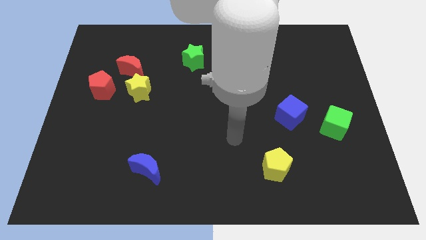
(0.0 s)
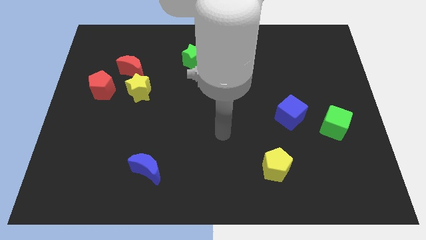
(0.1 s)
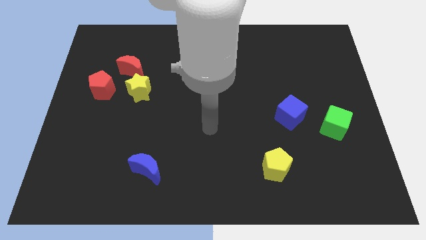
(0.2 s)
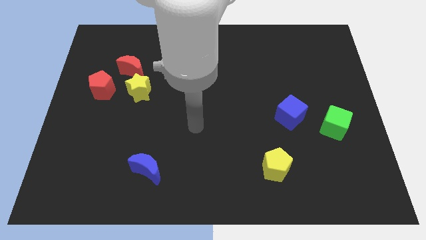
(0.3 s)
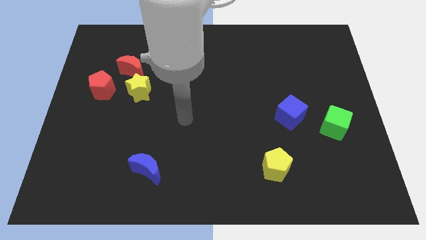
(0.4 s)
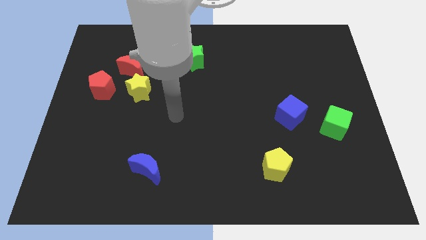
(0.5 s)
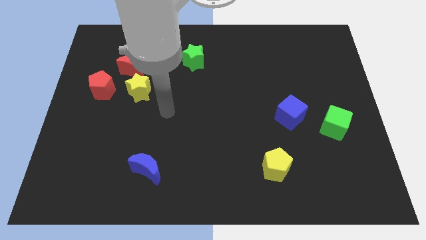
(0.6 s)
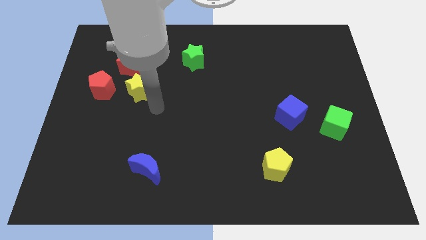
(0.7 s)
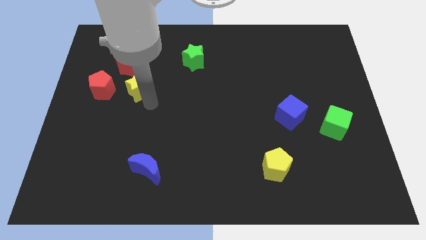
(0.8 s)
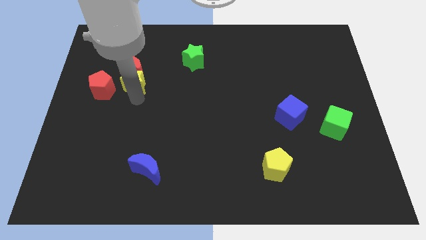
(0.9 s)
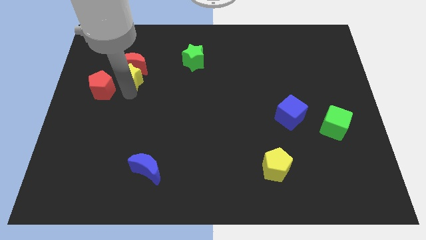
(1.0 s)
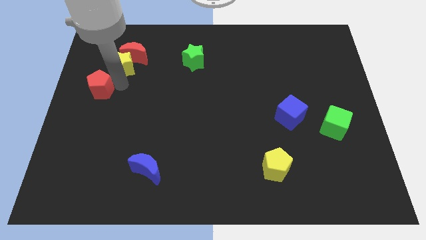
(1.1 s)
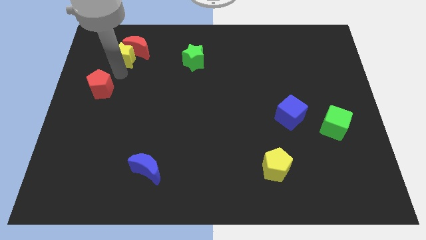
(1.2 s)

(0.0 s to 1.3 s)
pull the red moon apart from the yellow star and red pentagon

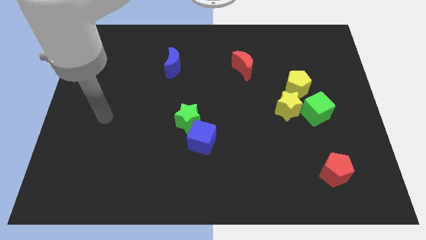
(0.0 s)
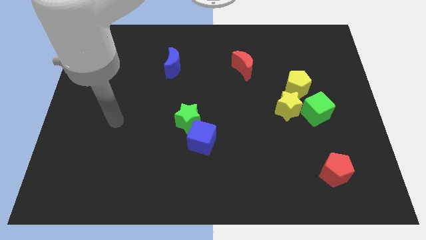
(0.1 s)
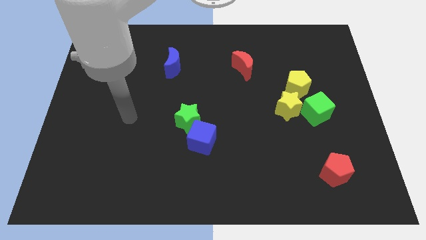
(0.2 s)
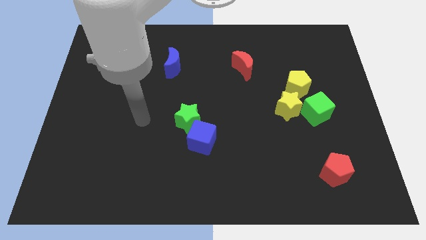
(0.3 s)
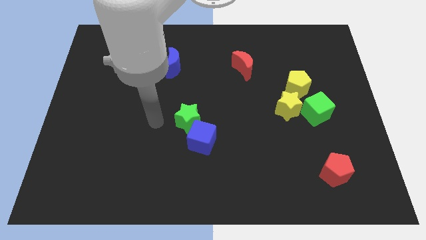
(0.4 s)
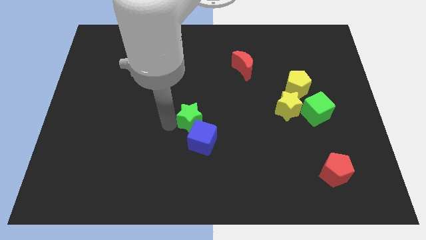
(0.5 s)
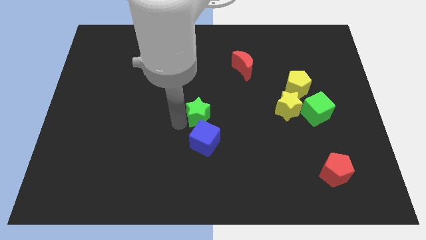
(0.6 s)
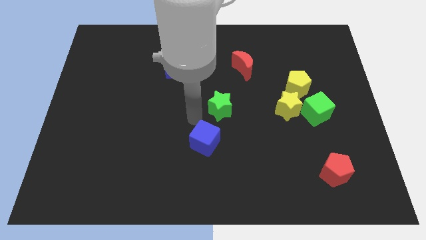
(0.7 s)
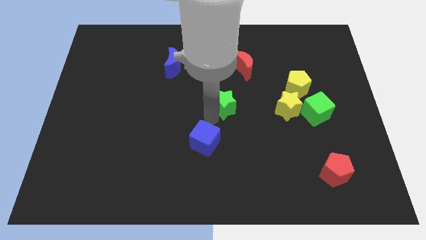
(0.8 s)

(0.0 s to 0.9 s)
move the blue cube away from the green star

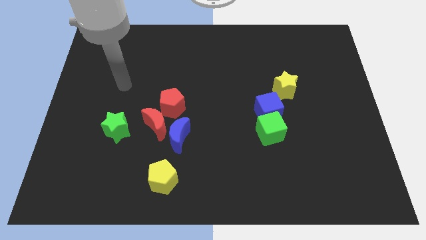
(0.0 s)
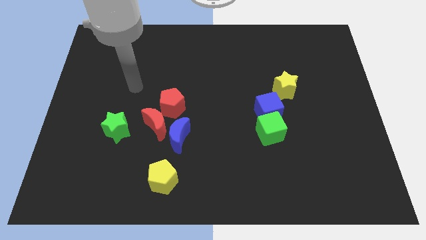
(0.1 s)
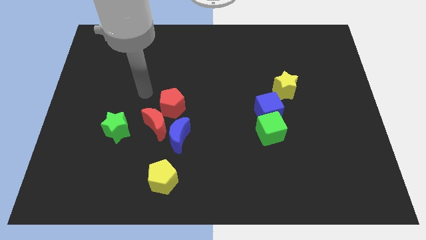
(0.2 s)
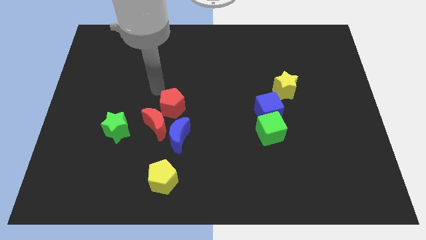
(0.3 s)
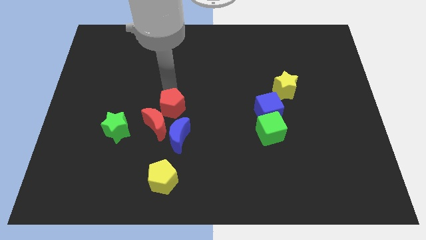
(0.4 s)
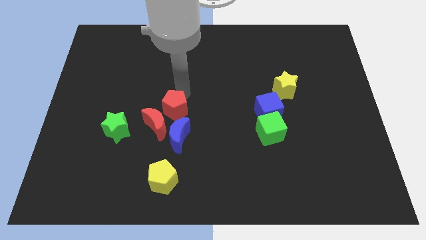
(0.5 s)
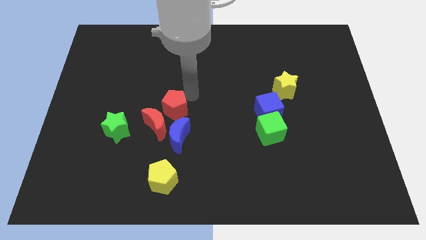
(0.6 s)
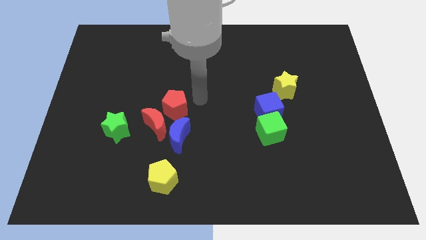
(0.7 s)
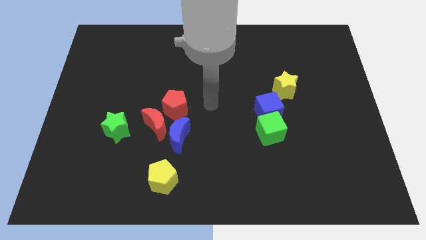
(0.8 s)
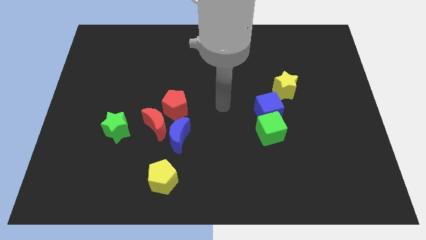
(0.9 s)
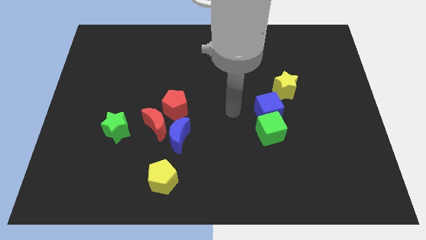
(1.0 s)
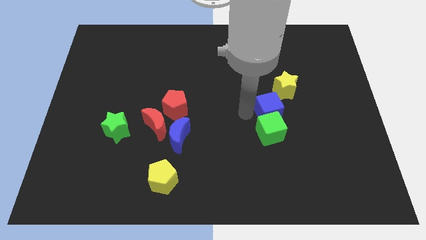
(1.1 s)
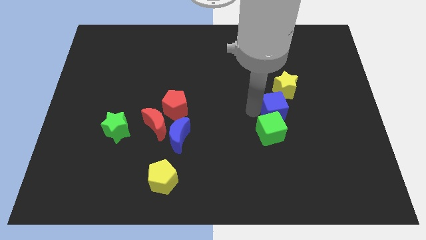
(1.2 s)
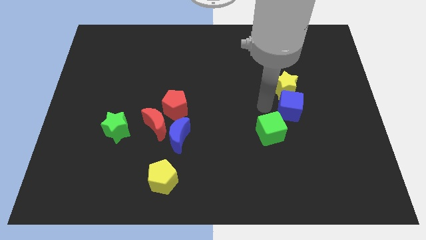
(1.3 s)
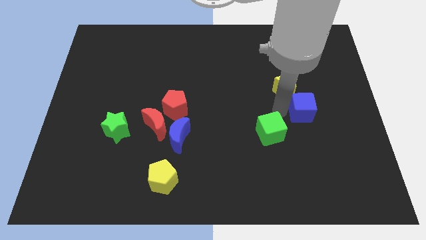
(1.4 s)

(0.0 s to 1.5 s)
pull the green cube apart from the blue cube

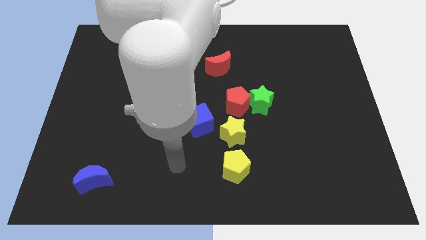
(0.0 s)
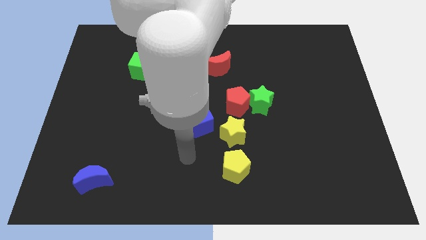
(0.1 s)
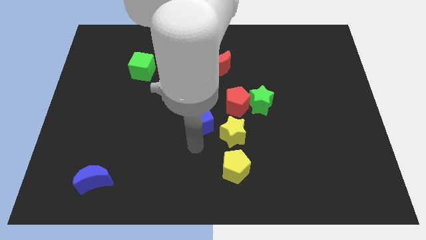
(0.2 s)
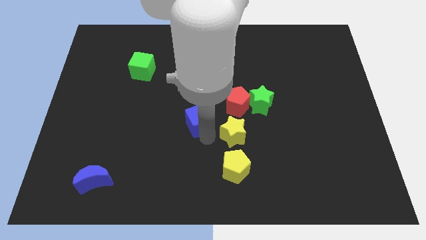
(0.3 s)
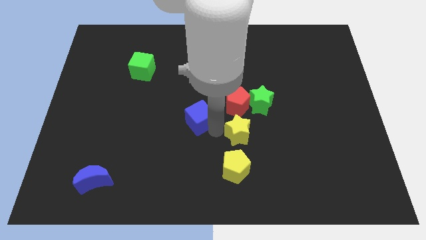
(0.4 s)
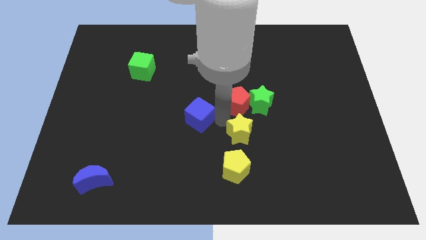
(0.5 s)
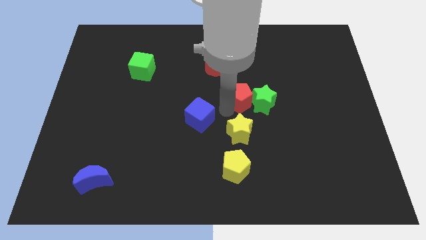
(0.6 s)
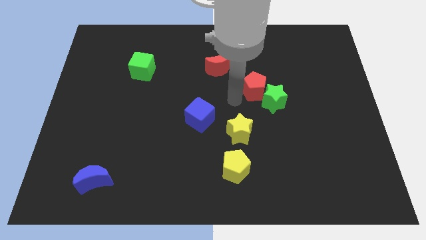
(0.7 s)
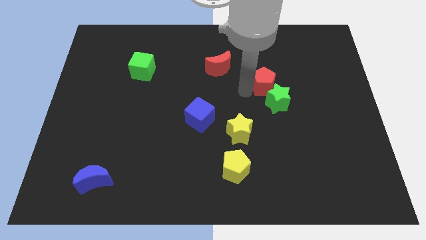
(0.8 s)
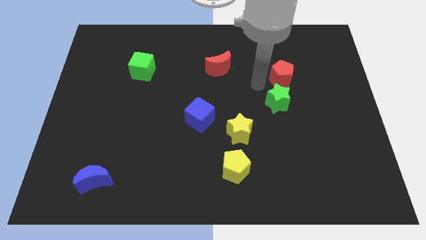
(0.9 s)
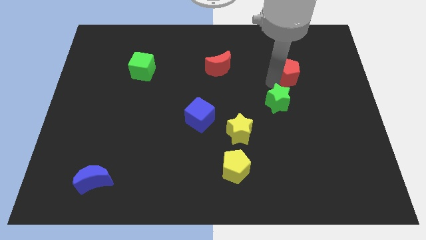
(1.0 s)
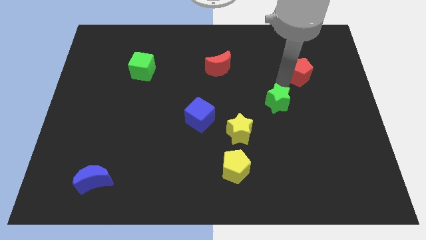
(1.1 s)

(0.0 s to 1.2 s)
separate the green star from the red pentagon

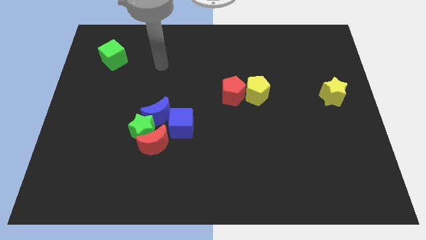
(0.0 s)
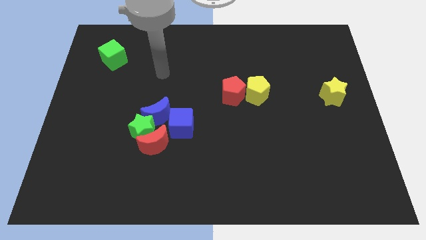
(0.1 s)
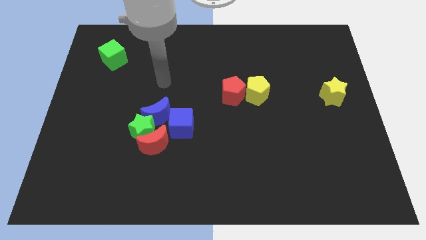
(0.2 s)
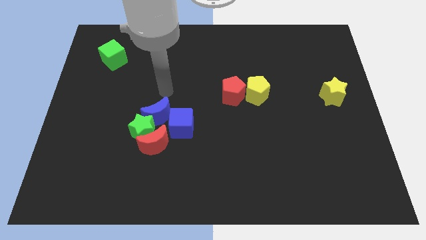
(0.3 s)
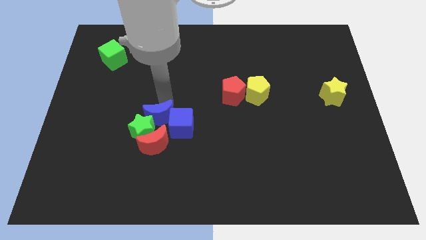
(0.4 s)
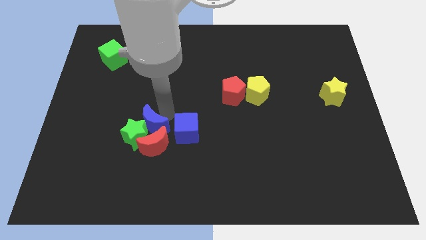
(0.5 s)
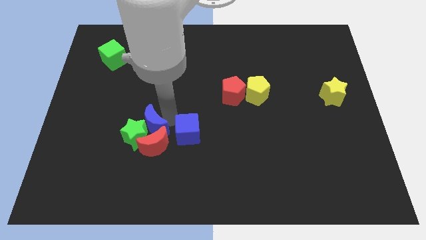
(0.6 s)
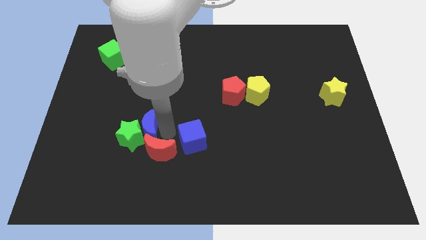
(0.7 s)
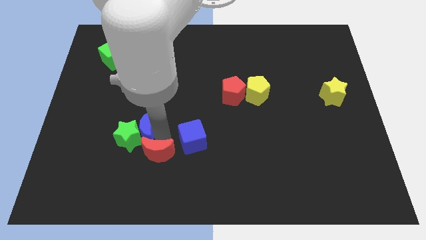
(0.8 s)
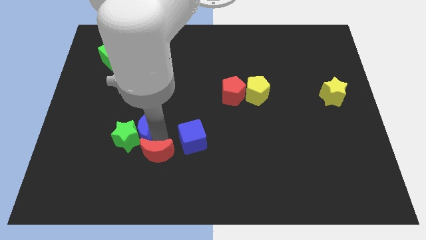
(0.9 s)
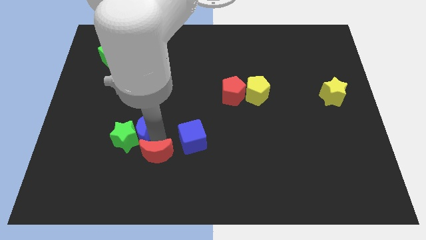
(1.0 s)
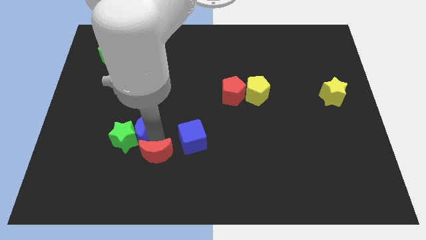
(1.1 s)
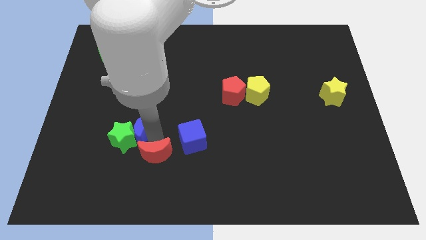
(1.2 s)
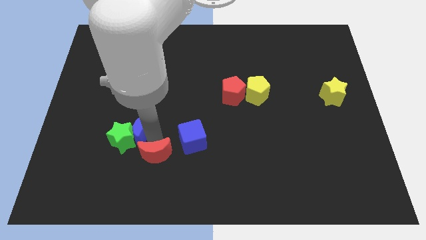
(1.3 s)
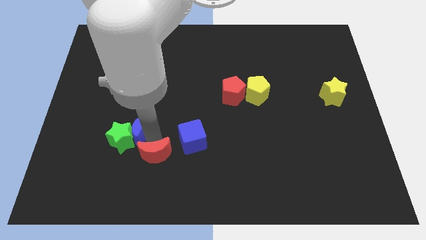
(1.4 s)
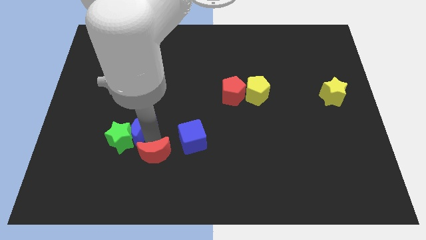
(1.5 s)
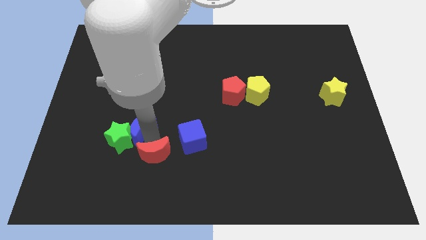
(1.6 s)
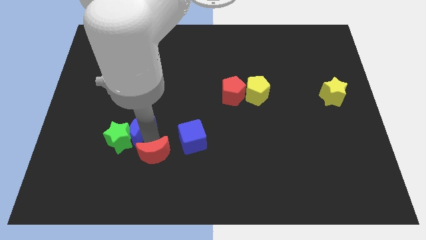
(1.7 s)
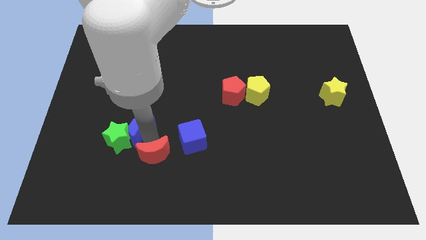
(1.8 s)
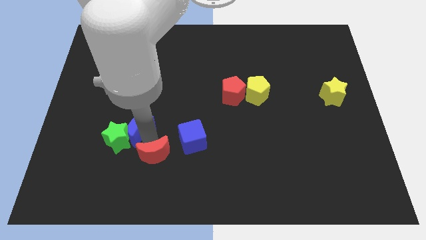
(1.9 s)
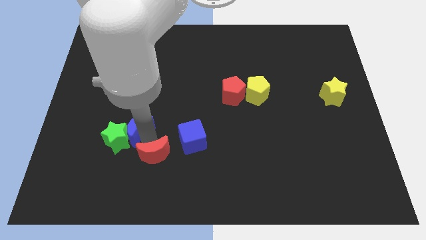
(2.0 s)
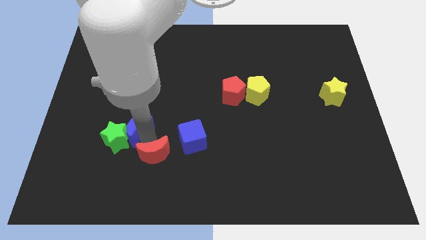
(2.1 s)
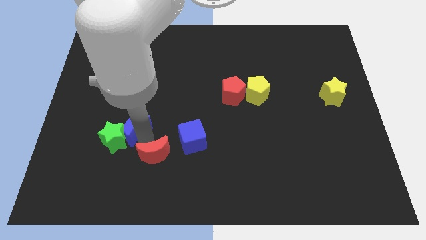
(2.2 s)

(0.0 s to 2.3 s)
move the green star away from the clump

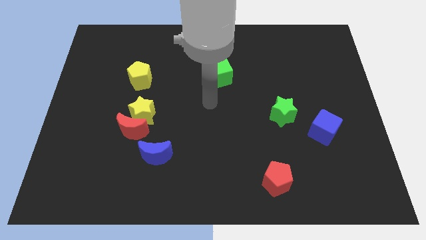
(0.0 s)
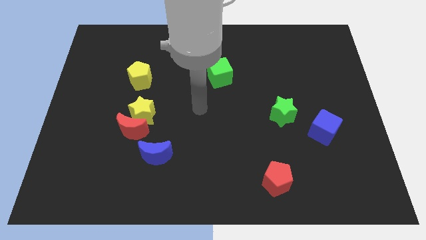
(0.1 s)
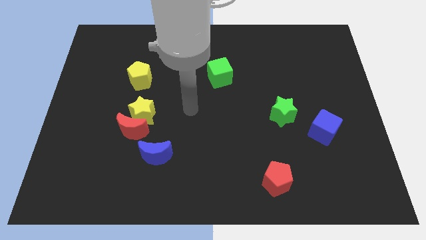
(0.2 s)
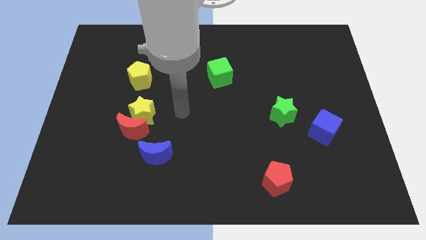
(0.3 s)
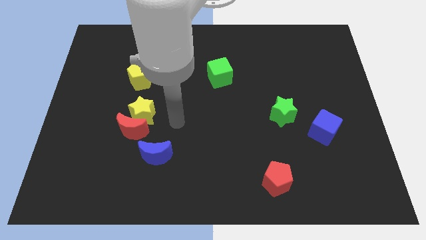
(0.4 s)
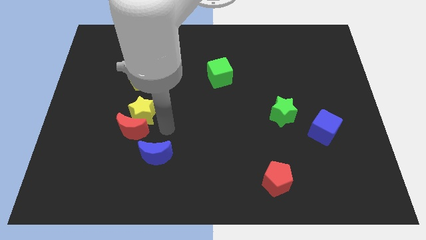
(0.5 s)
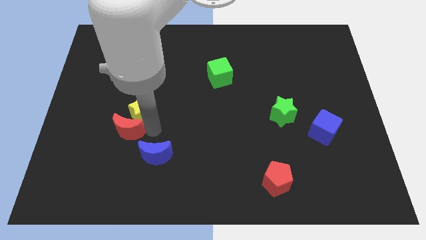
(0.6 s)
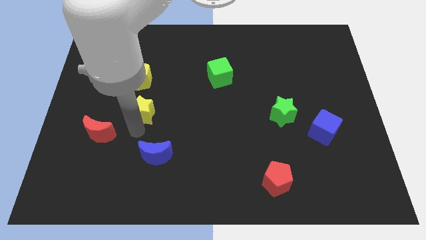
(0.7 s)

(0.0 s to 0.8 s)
separate the yellow star from the red moon

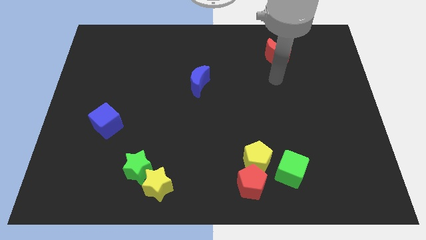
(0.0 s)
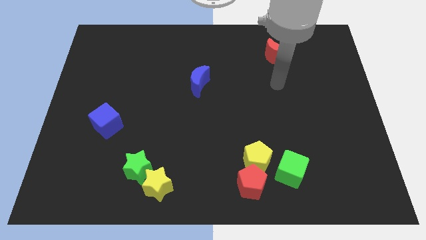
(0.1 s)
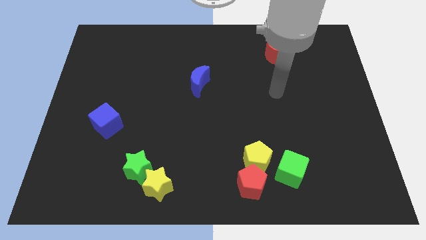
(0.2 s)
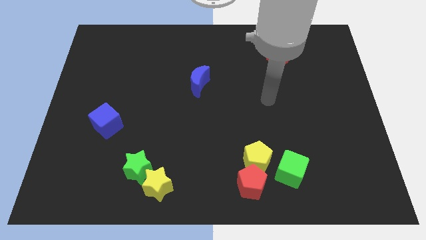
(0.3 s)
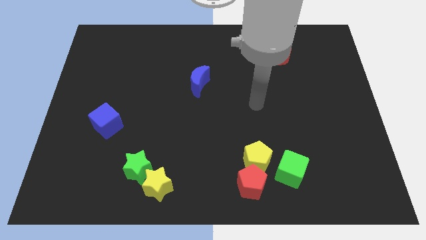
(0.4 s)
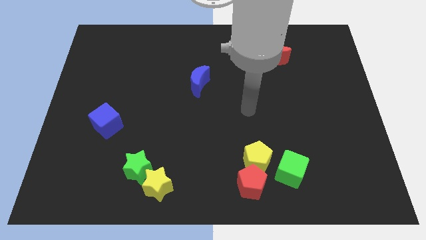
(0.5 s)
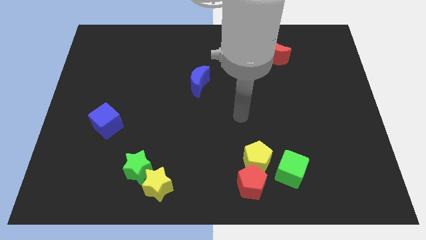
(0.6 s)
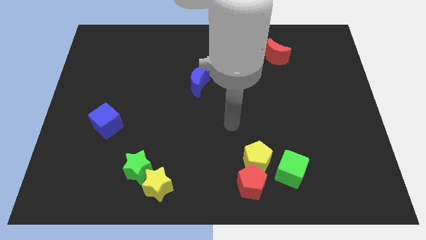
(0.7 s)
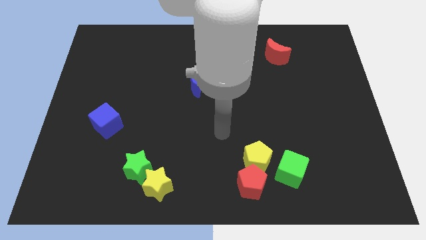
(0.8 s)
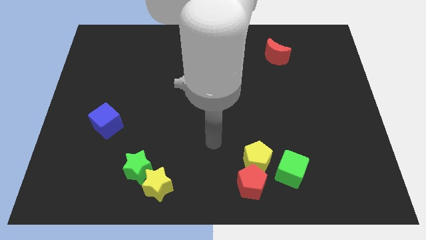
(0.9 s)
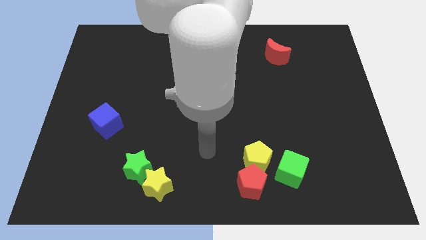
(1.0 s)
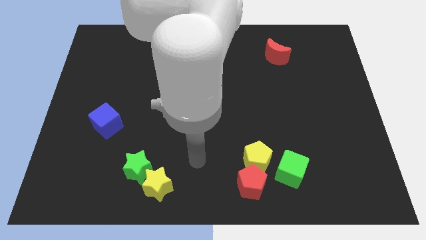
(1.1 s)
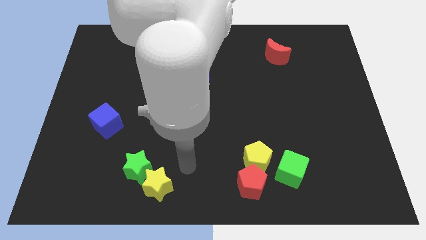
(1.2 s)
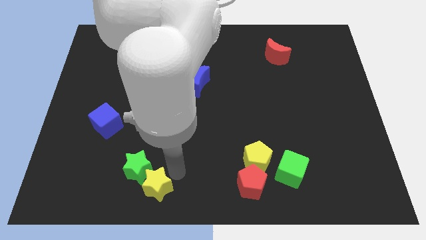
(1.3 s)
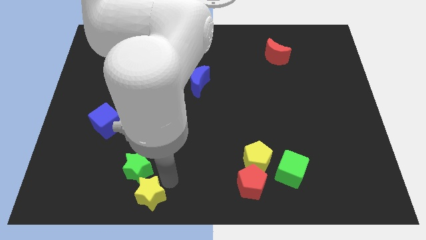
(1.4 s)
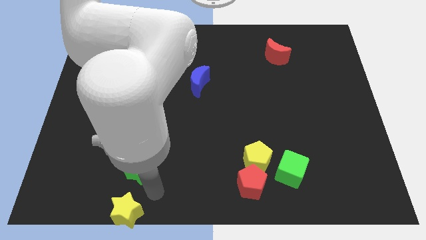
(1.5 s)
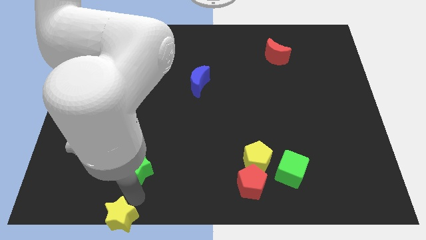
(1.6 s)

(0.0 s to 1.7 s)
pull the green star apart from the yellow star
